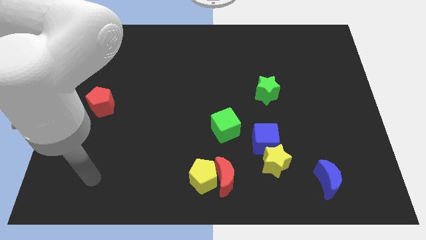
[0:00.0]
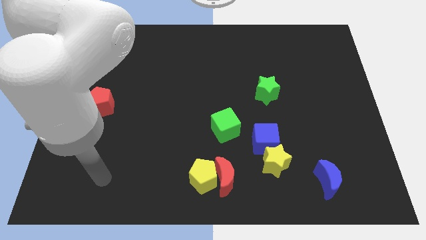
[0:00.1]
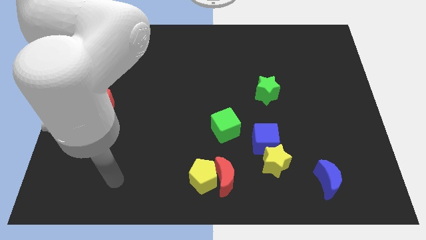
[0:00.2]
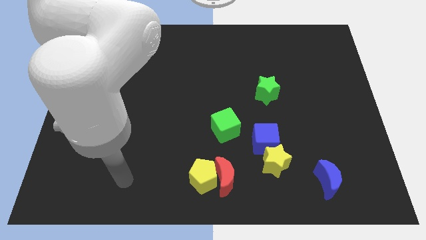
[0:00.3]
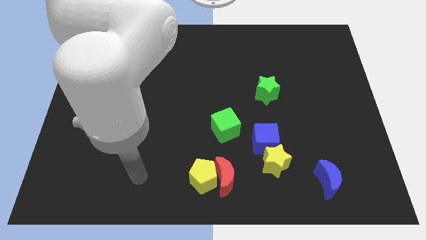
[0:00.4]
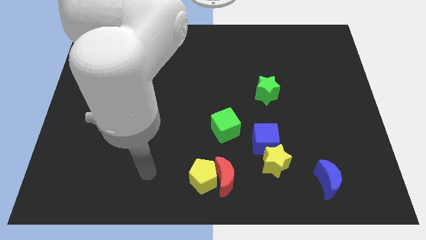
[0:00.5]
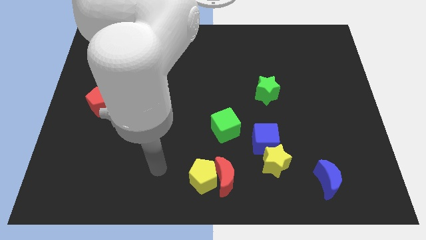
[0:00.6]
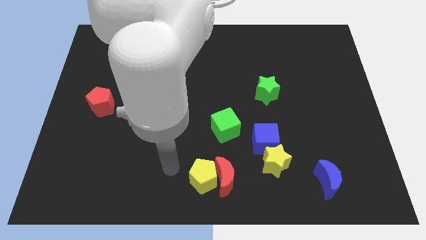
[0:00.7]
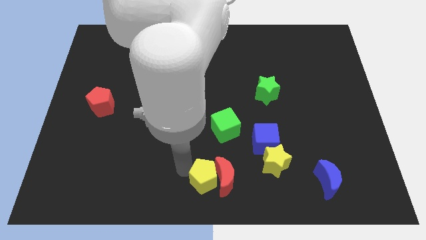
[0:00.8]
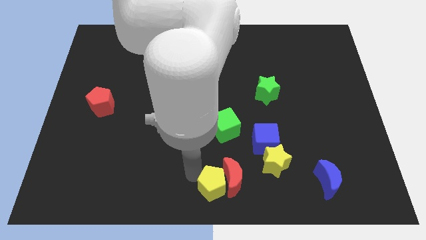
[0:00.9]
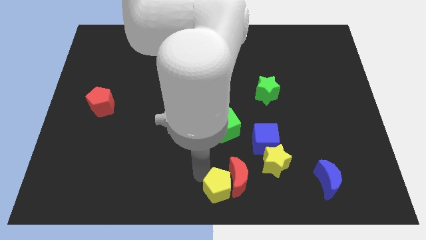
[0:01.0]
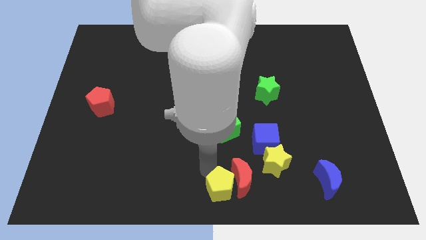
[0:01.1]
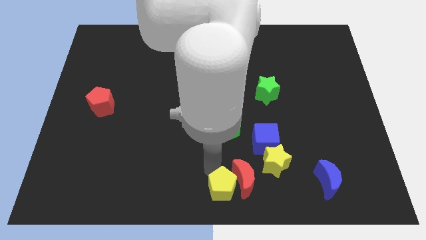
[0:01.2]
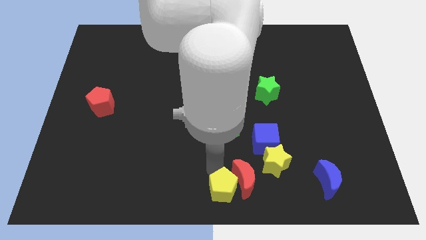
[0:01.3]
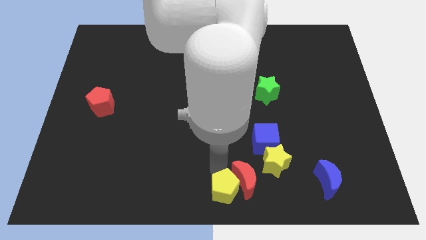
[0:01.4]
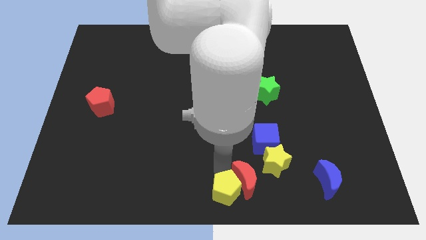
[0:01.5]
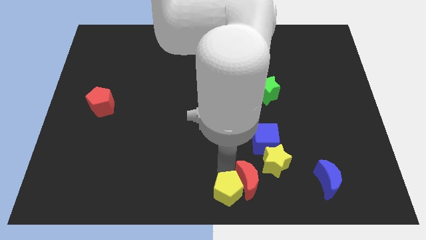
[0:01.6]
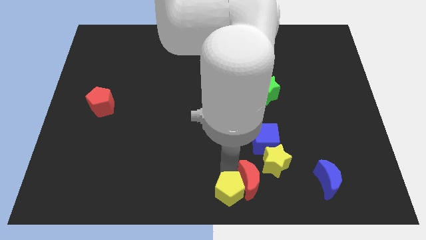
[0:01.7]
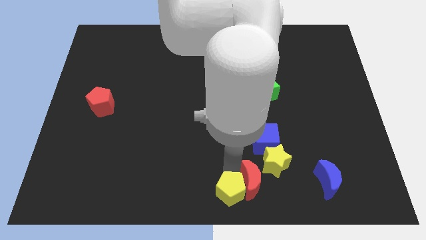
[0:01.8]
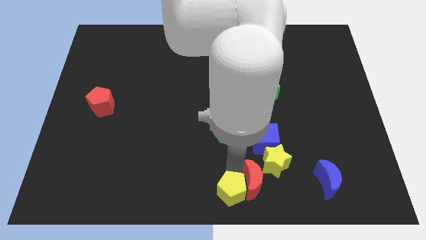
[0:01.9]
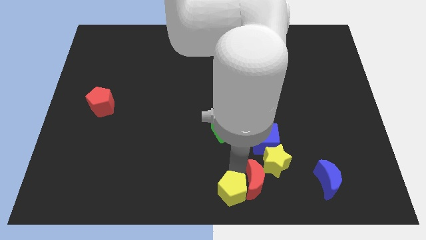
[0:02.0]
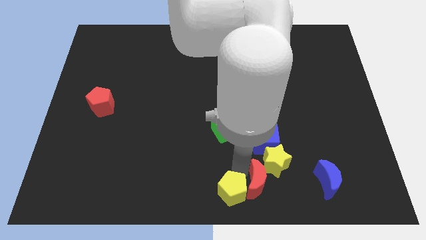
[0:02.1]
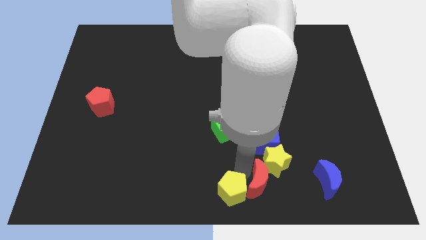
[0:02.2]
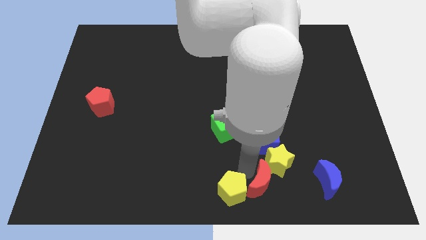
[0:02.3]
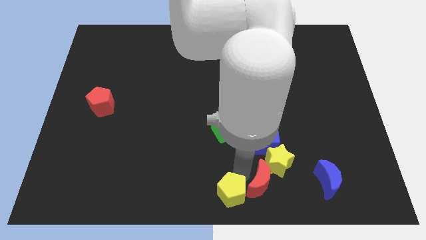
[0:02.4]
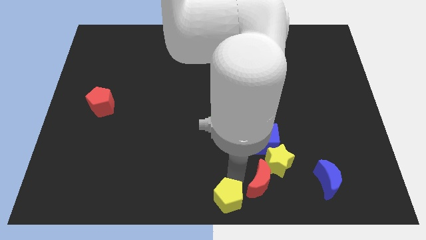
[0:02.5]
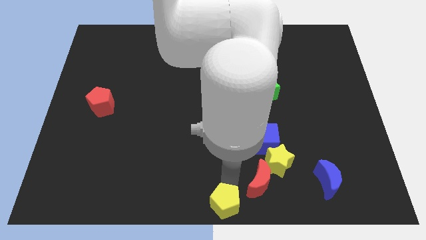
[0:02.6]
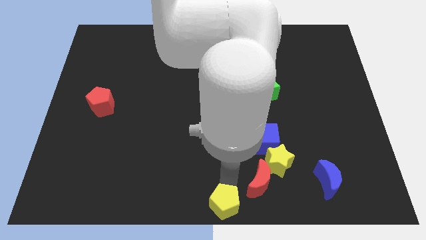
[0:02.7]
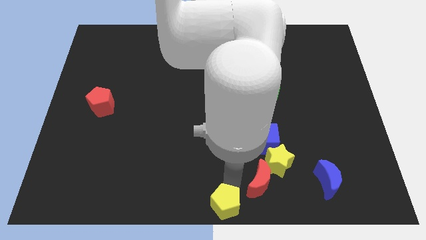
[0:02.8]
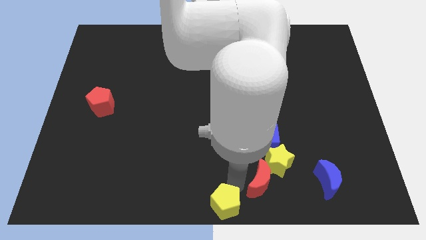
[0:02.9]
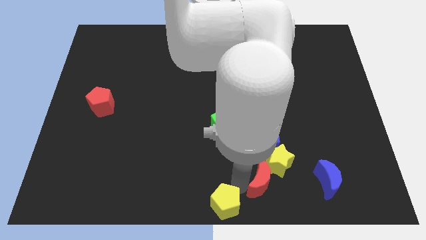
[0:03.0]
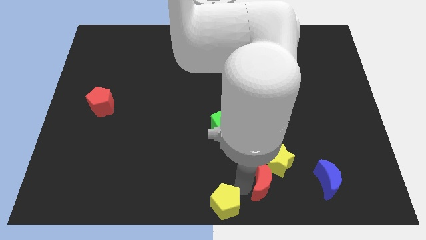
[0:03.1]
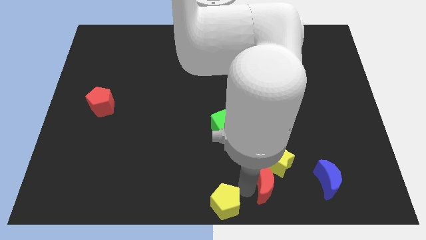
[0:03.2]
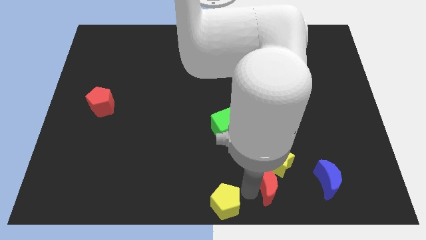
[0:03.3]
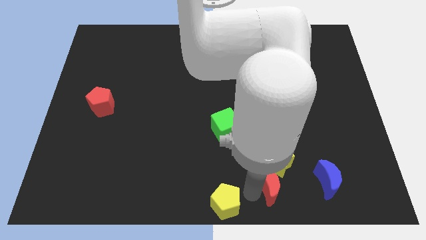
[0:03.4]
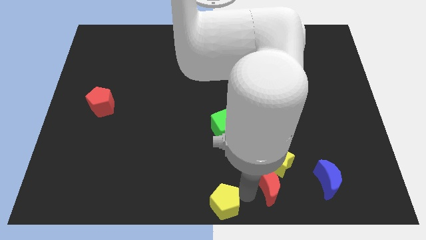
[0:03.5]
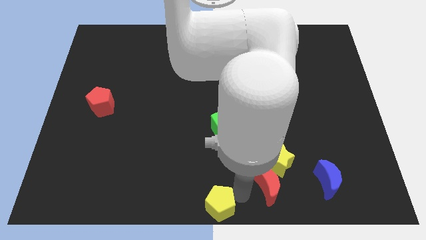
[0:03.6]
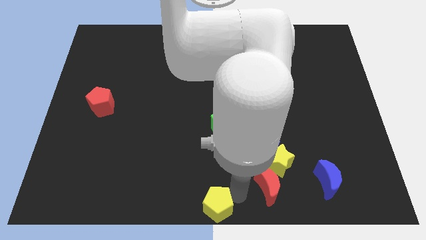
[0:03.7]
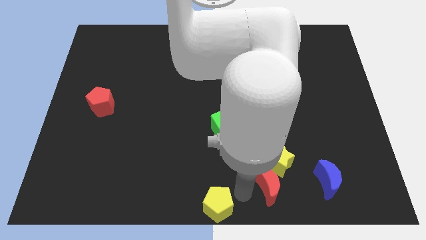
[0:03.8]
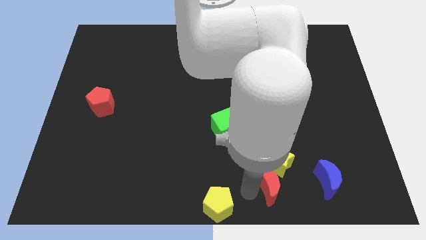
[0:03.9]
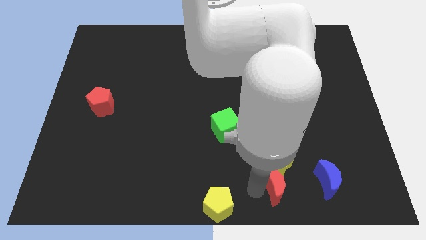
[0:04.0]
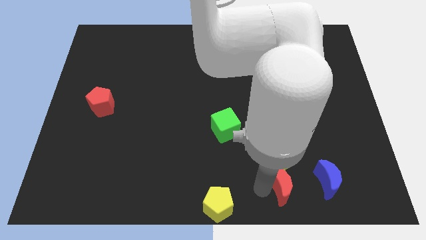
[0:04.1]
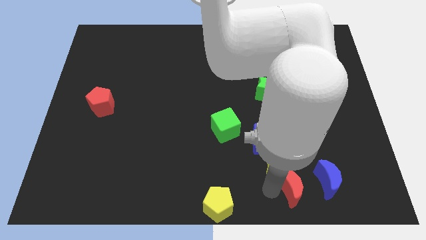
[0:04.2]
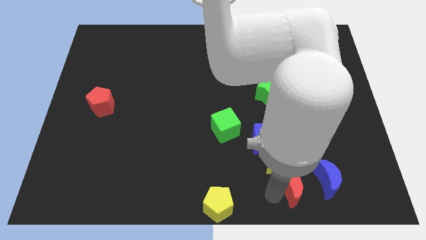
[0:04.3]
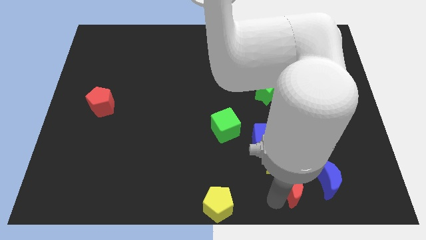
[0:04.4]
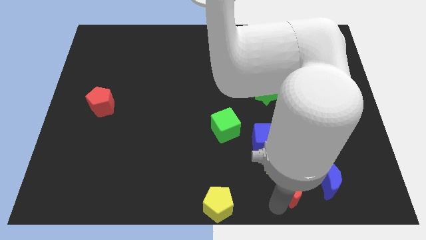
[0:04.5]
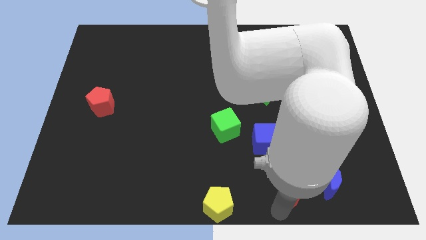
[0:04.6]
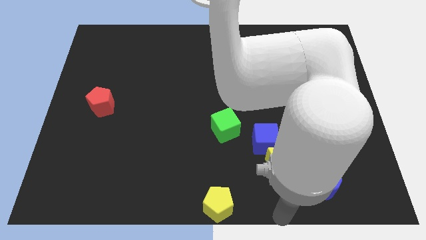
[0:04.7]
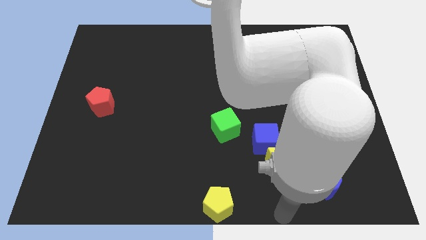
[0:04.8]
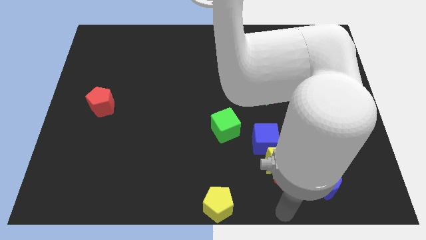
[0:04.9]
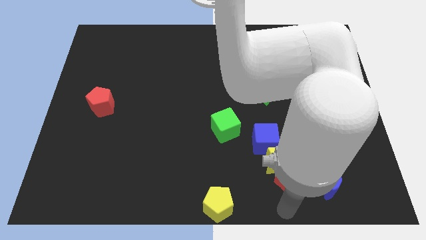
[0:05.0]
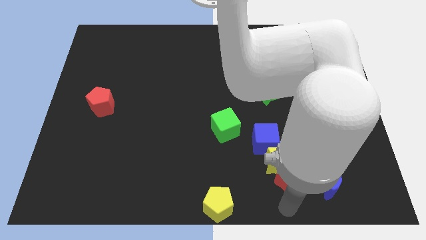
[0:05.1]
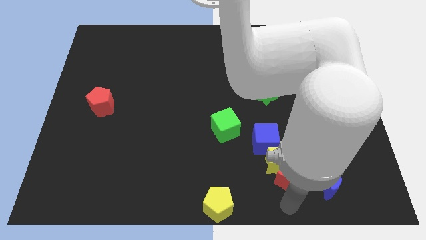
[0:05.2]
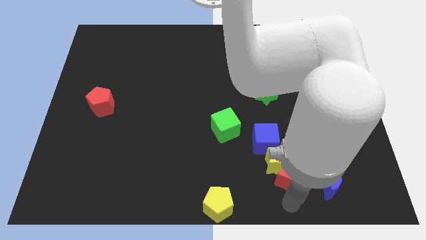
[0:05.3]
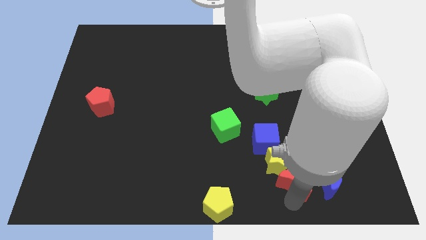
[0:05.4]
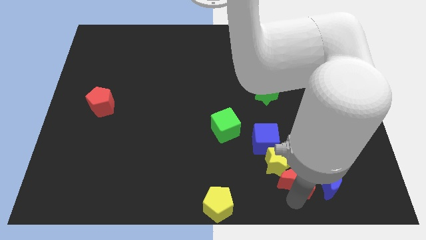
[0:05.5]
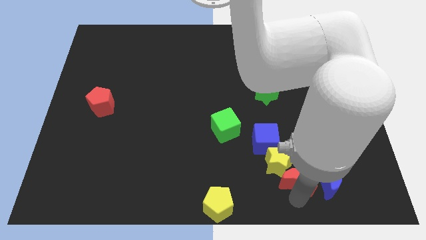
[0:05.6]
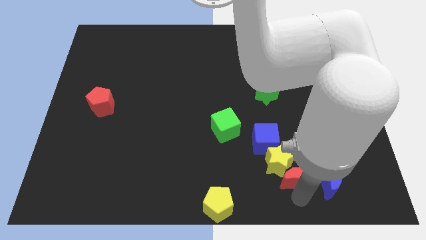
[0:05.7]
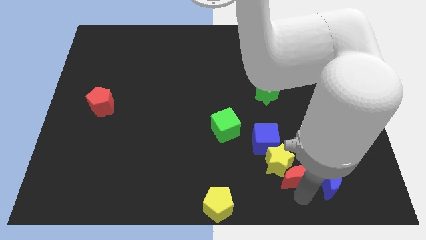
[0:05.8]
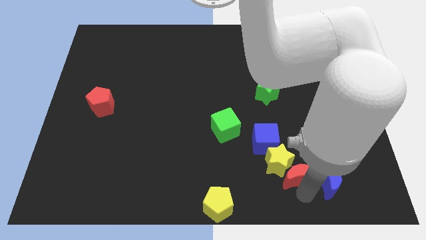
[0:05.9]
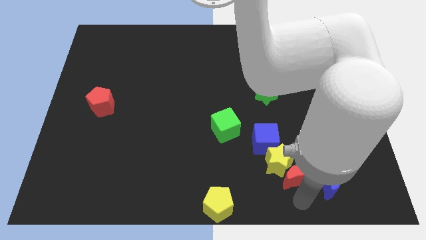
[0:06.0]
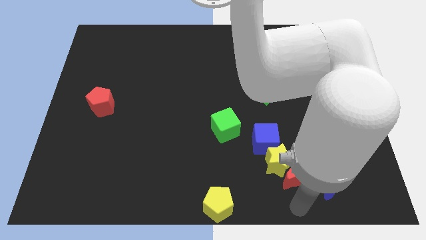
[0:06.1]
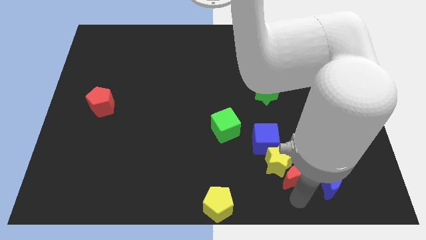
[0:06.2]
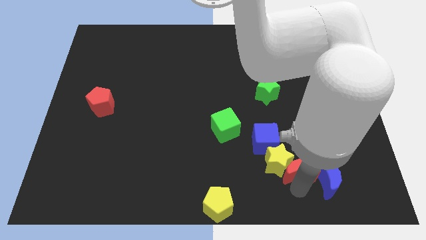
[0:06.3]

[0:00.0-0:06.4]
push the red moon diagonally up and to the right of the yellow star

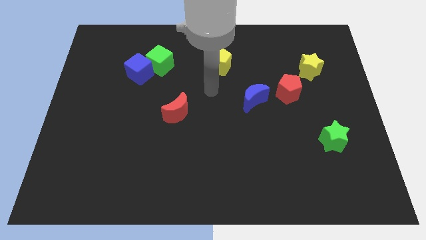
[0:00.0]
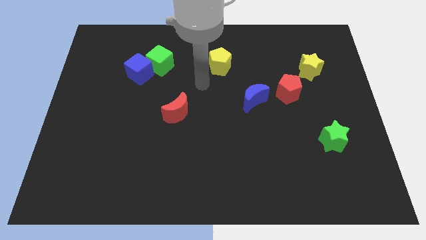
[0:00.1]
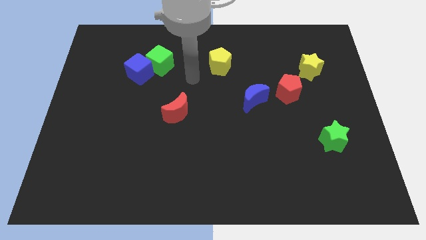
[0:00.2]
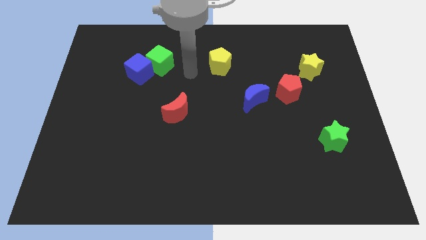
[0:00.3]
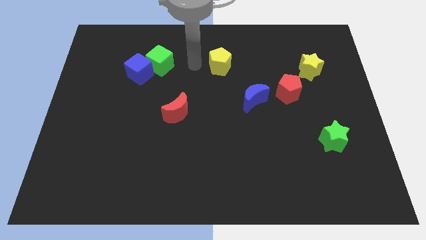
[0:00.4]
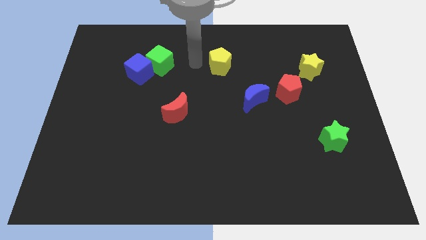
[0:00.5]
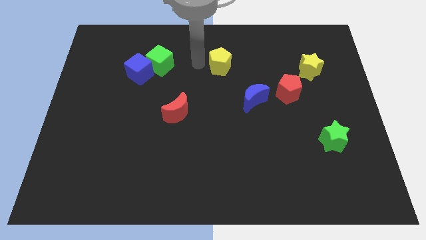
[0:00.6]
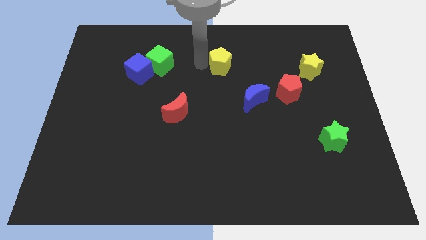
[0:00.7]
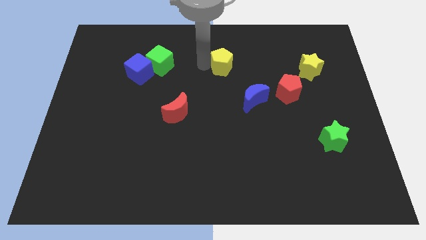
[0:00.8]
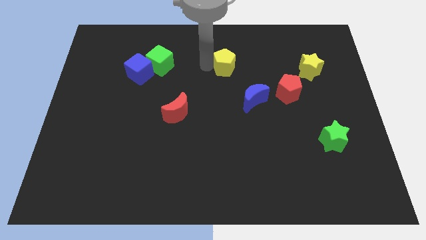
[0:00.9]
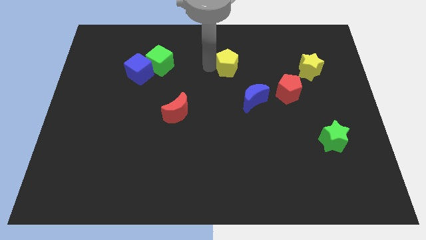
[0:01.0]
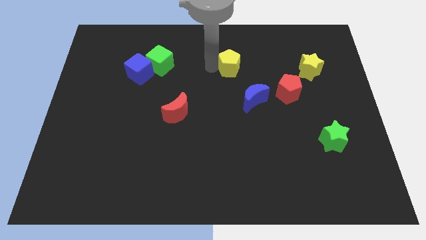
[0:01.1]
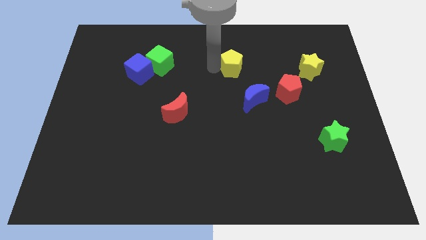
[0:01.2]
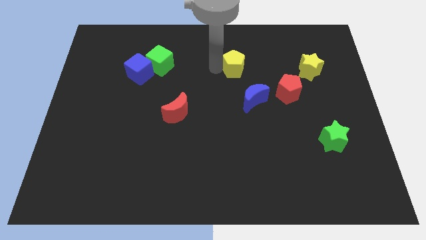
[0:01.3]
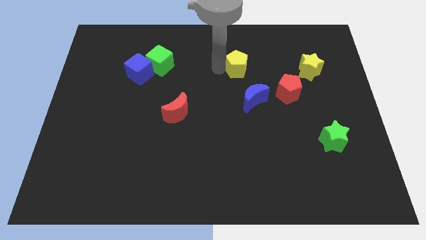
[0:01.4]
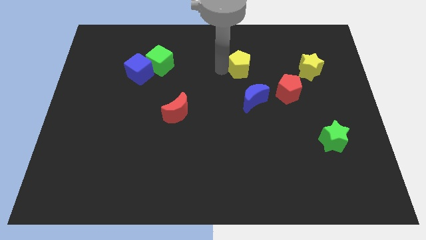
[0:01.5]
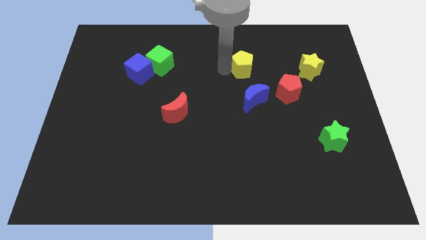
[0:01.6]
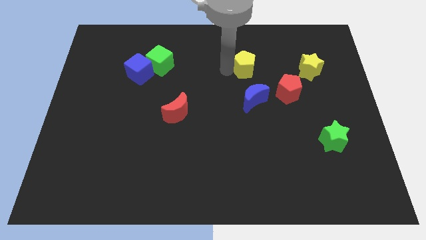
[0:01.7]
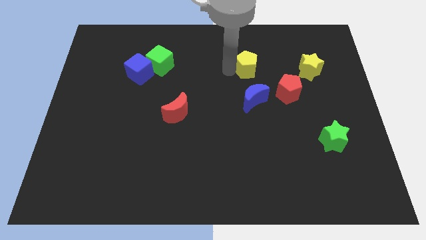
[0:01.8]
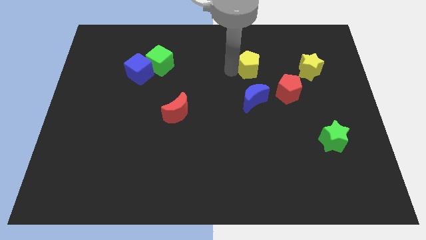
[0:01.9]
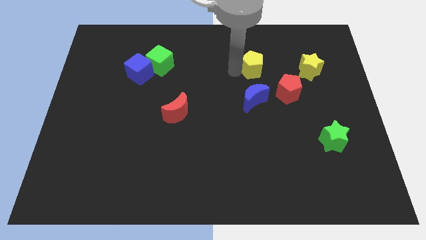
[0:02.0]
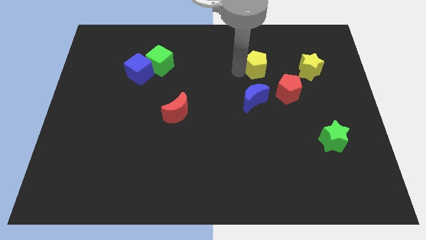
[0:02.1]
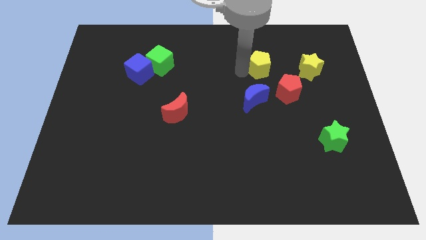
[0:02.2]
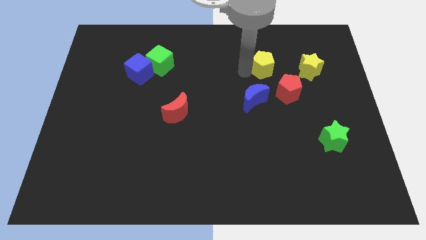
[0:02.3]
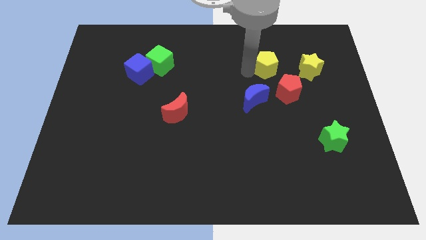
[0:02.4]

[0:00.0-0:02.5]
push the yellow pentagon to the top side of the red pentagon
